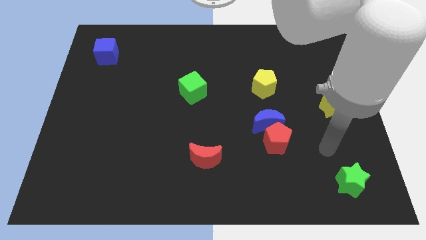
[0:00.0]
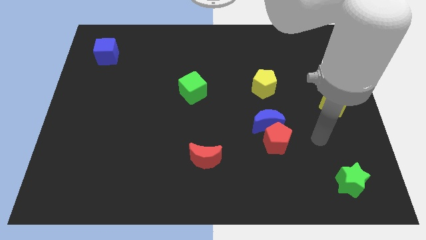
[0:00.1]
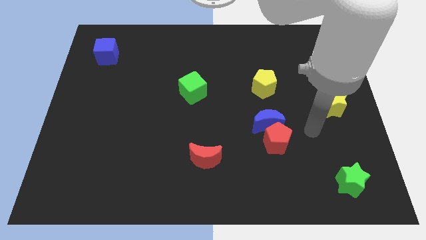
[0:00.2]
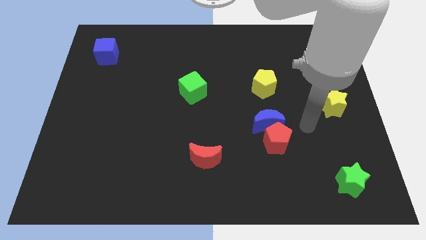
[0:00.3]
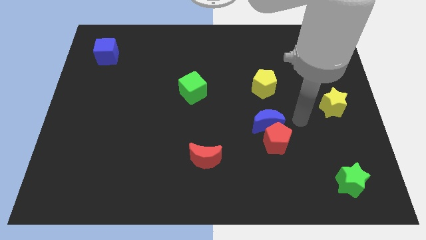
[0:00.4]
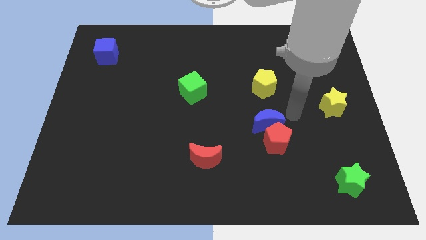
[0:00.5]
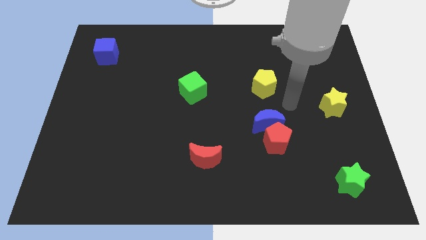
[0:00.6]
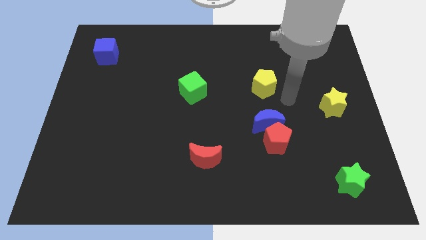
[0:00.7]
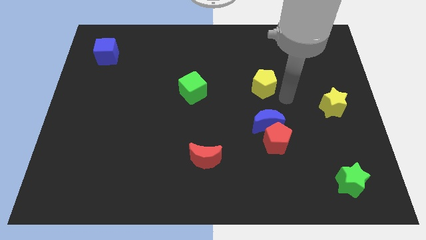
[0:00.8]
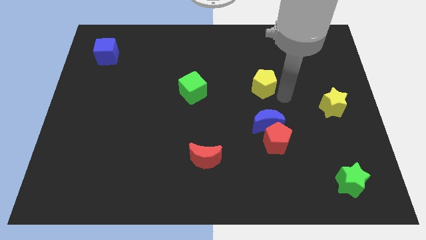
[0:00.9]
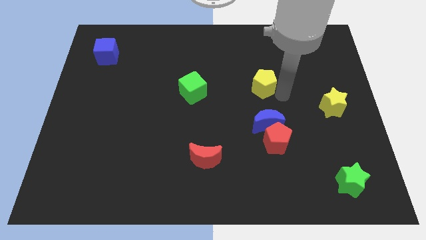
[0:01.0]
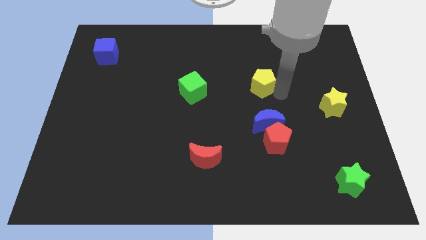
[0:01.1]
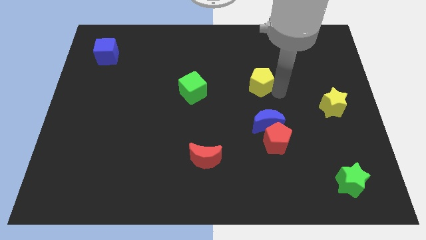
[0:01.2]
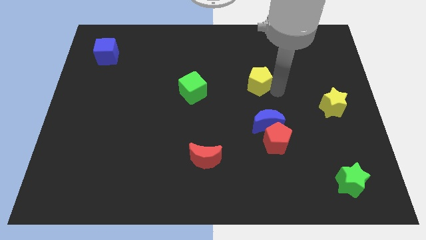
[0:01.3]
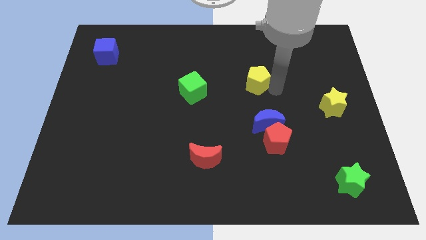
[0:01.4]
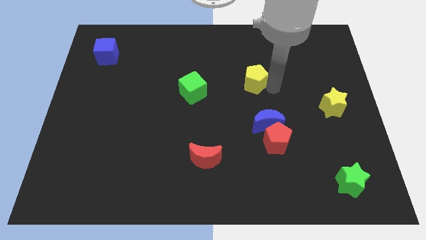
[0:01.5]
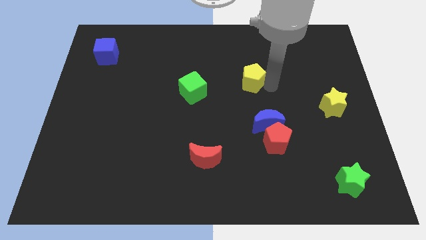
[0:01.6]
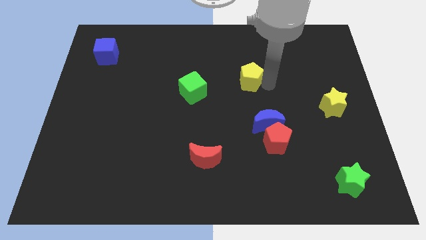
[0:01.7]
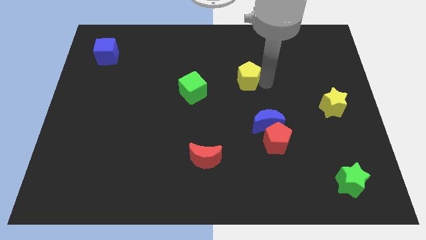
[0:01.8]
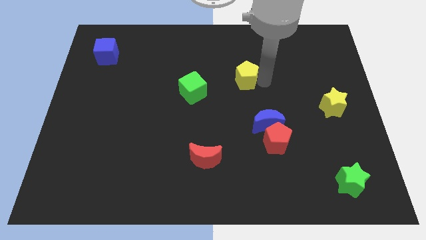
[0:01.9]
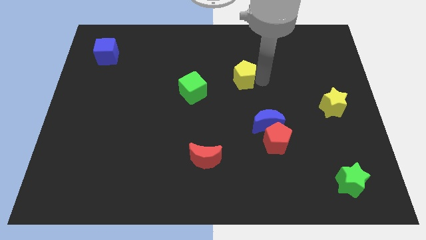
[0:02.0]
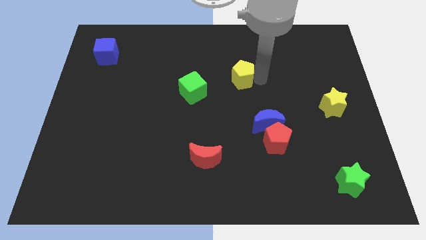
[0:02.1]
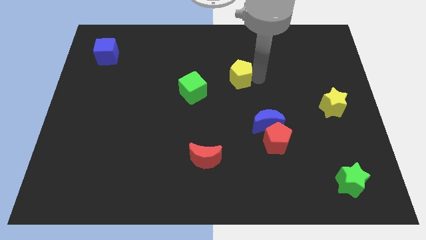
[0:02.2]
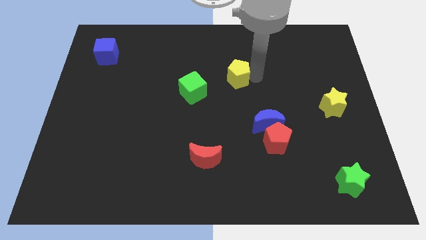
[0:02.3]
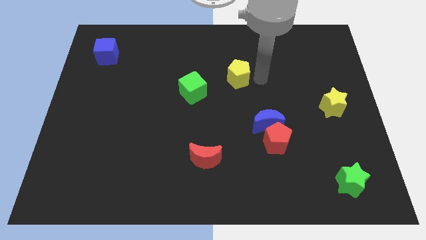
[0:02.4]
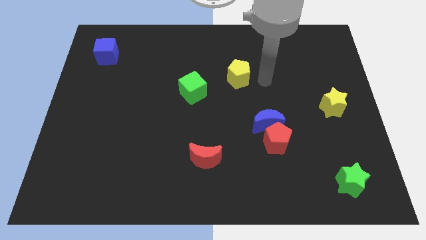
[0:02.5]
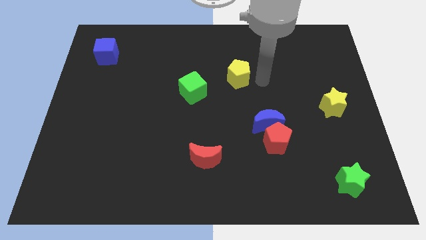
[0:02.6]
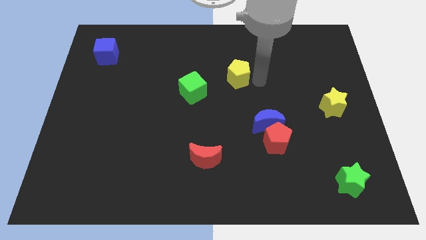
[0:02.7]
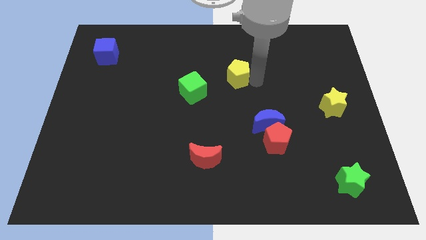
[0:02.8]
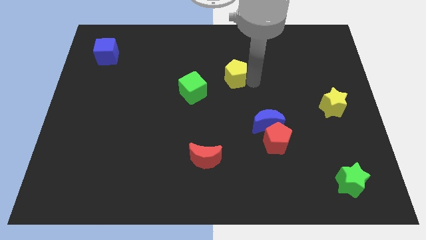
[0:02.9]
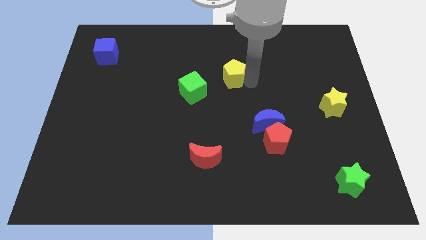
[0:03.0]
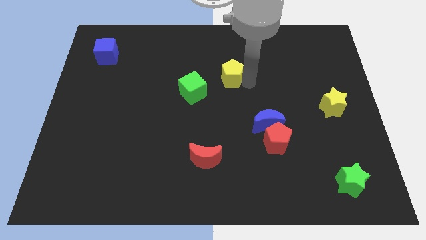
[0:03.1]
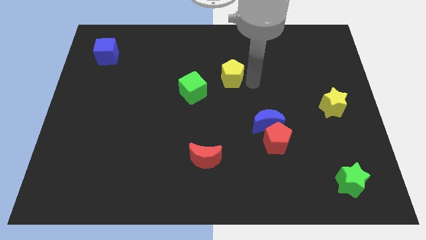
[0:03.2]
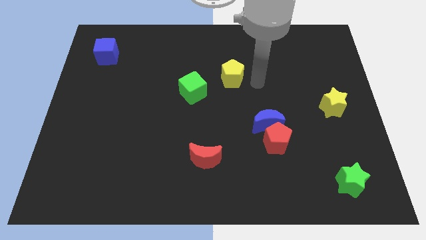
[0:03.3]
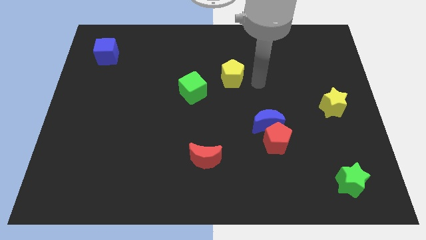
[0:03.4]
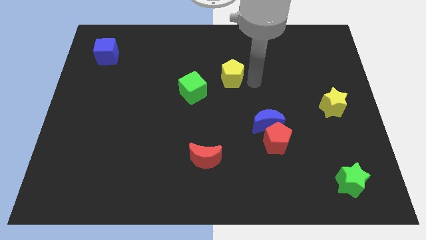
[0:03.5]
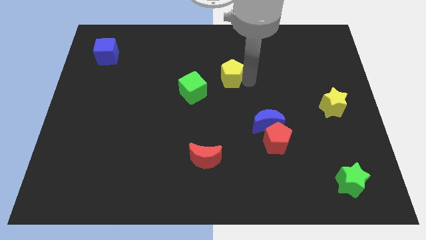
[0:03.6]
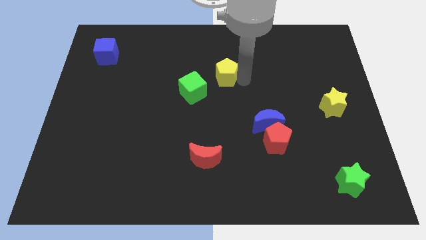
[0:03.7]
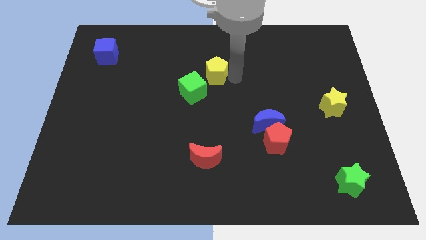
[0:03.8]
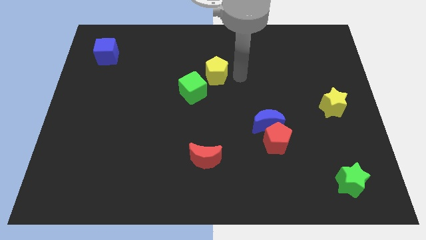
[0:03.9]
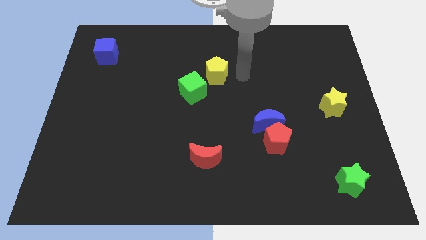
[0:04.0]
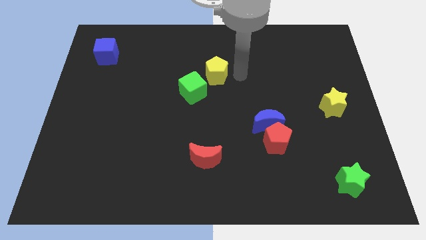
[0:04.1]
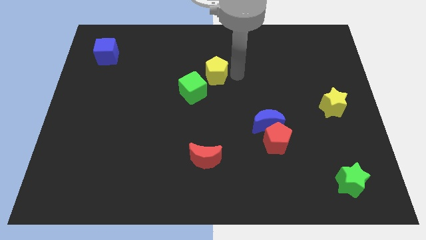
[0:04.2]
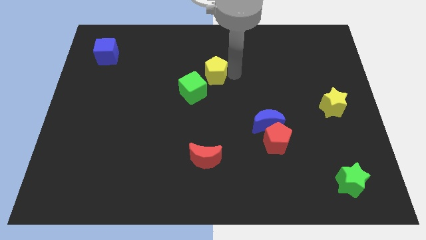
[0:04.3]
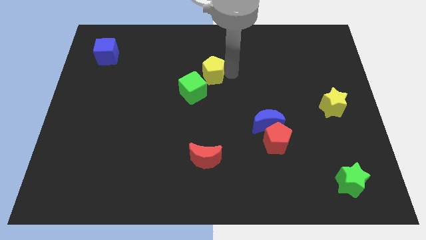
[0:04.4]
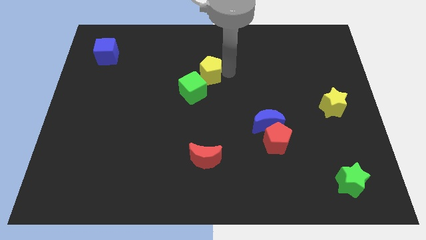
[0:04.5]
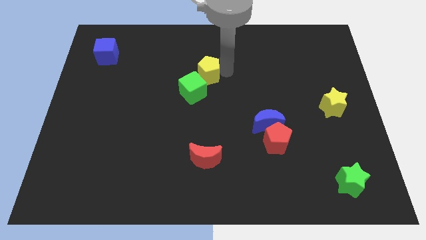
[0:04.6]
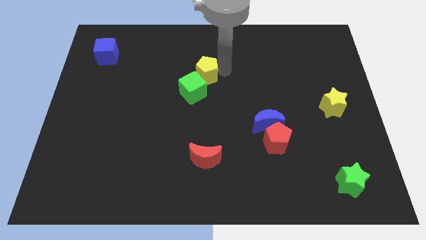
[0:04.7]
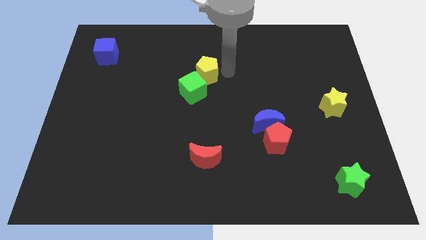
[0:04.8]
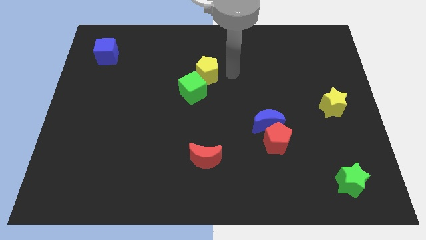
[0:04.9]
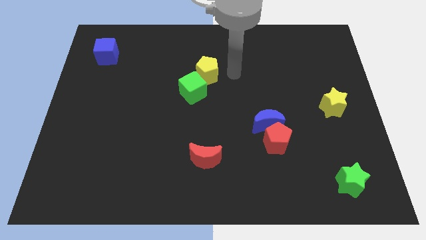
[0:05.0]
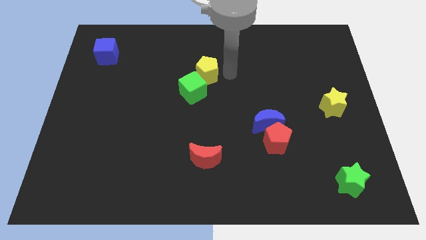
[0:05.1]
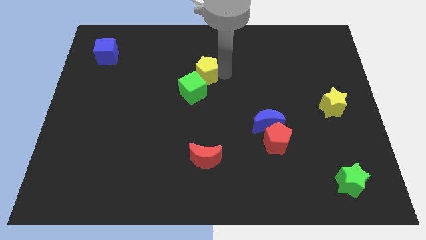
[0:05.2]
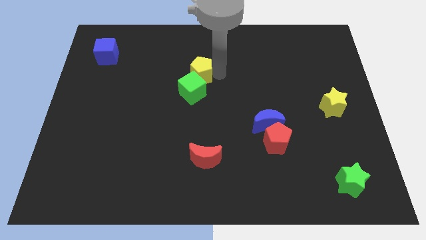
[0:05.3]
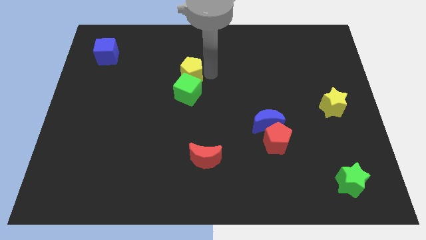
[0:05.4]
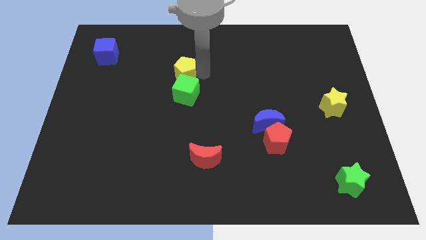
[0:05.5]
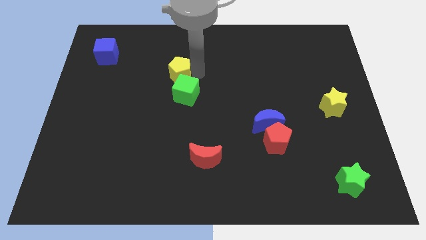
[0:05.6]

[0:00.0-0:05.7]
move the yellow pentagon to the left

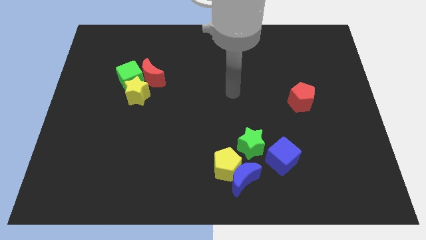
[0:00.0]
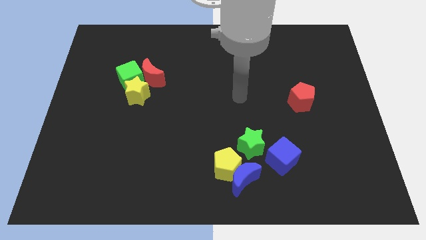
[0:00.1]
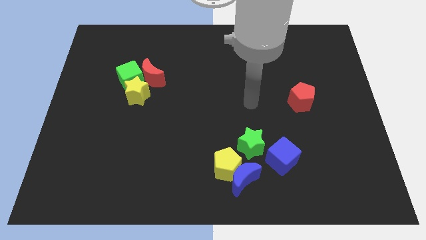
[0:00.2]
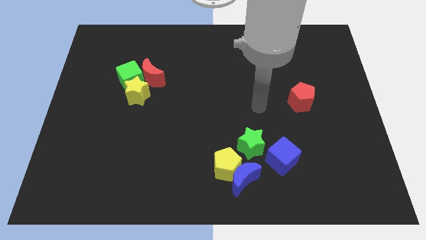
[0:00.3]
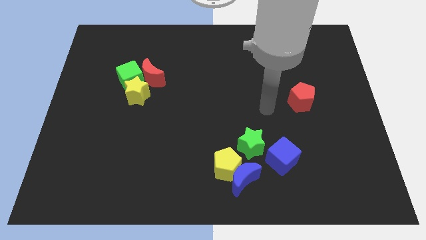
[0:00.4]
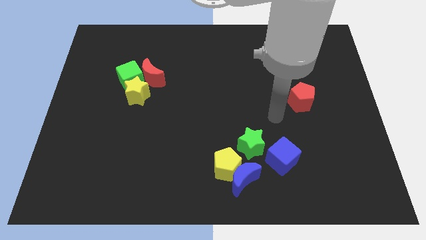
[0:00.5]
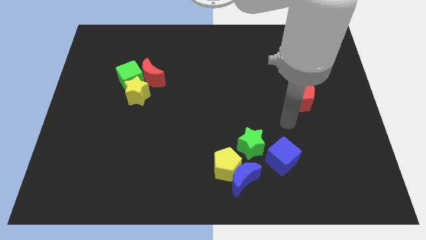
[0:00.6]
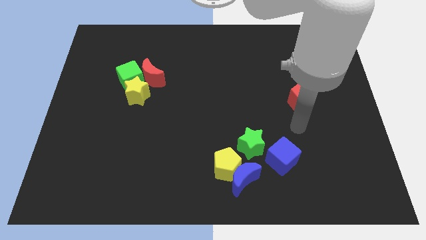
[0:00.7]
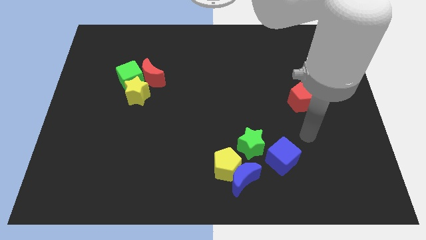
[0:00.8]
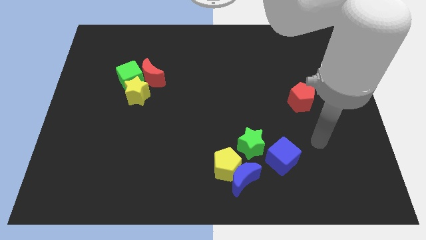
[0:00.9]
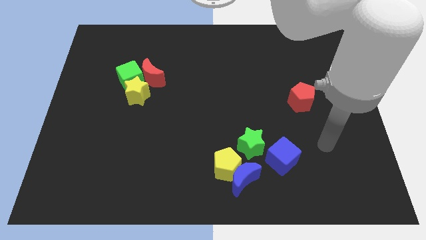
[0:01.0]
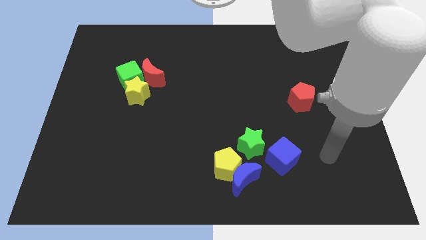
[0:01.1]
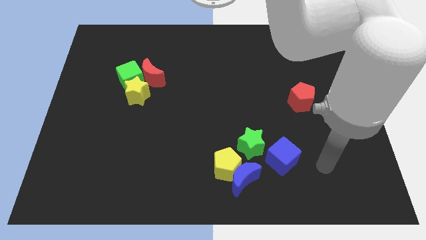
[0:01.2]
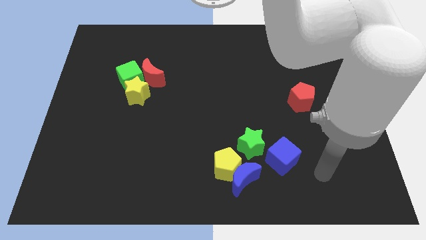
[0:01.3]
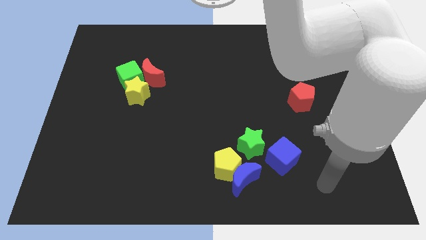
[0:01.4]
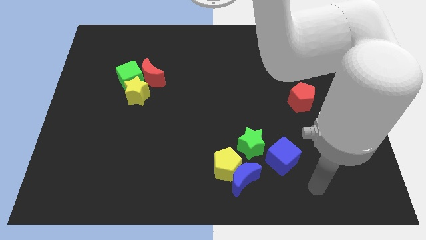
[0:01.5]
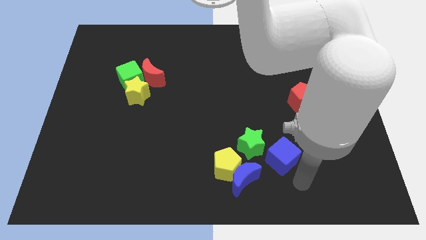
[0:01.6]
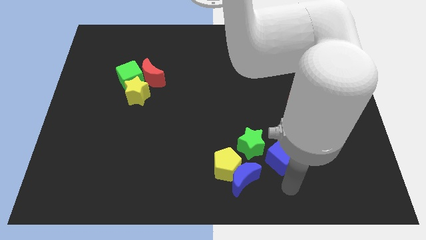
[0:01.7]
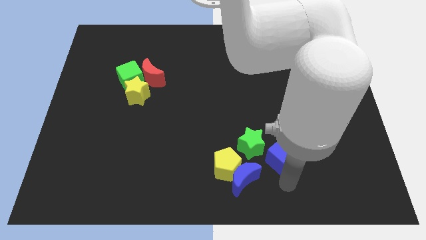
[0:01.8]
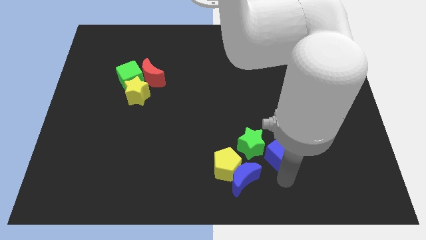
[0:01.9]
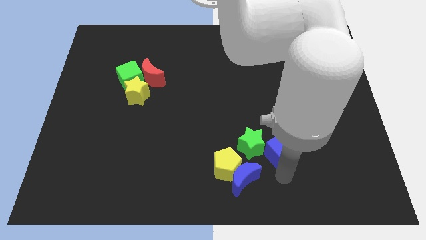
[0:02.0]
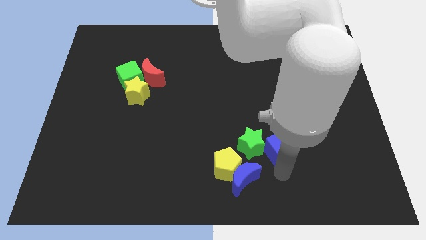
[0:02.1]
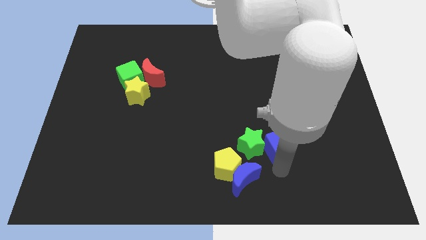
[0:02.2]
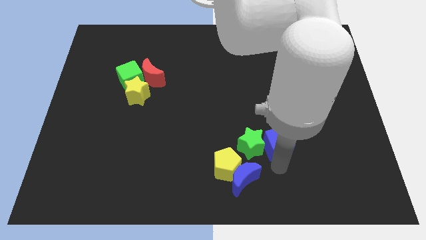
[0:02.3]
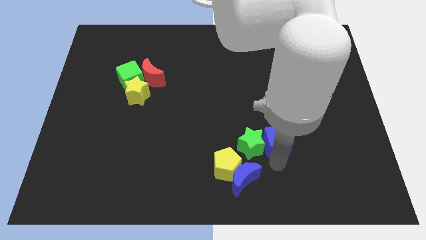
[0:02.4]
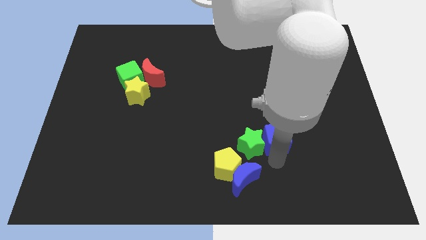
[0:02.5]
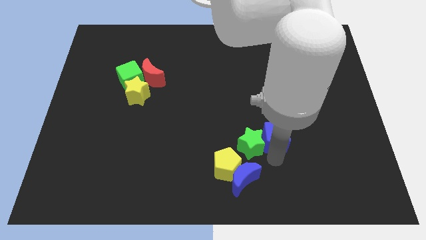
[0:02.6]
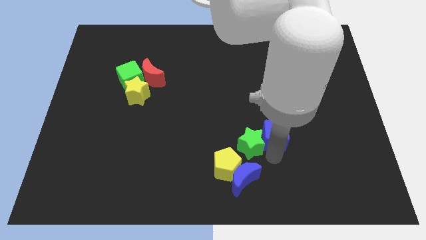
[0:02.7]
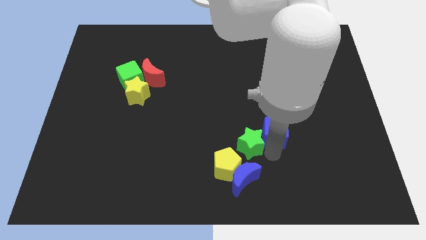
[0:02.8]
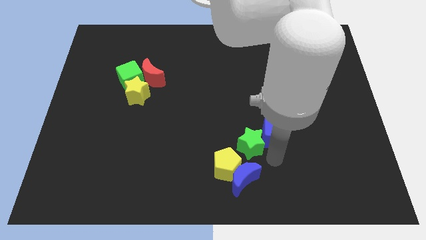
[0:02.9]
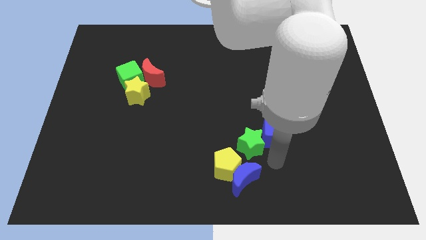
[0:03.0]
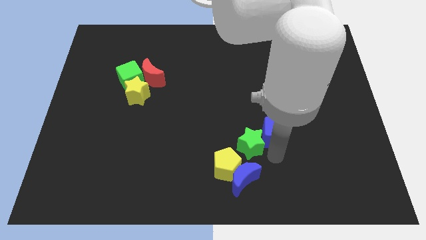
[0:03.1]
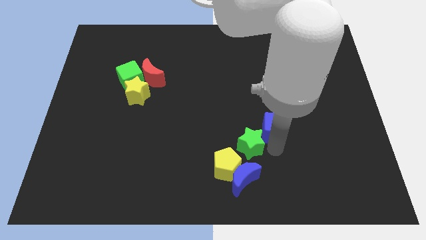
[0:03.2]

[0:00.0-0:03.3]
move the blue cube upwards slightly
